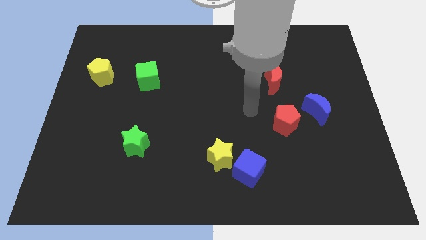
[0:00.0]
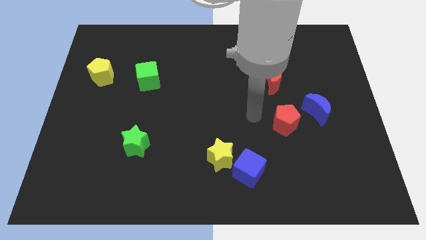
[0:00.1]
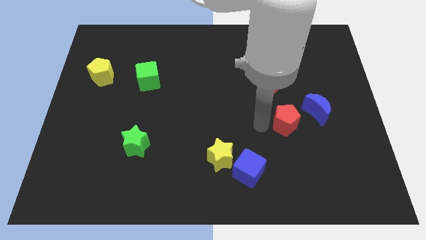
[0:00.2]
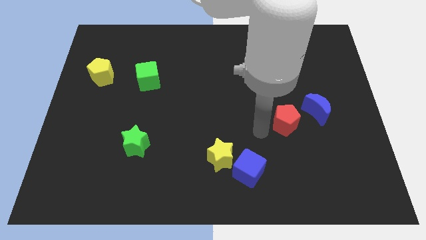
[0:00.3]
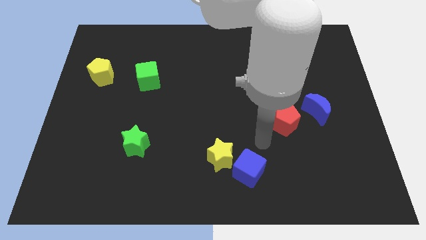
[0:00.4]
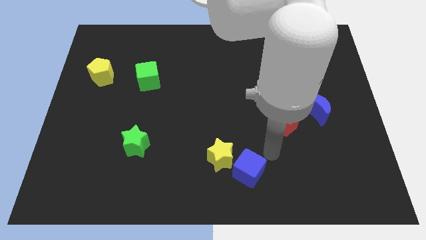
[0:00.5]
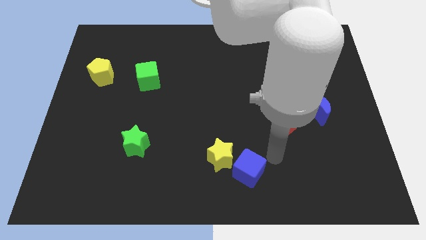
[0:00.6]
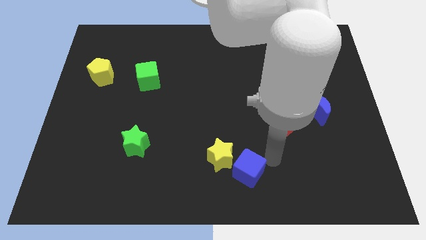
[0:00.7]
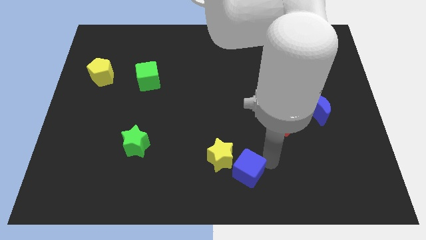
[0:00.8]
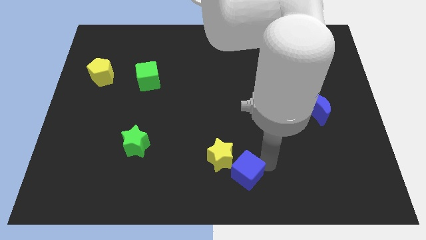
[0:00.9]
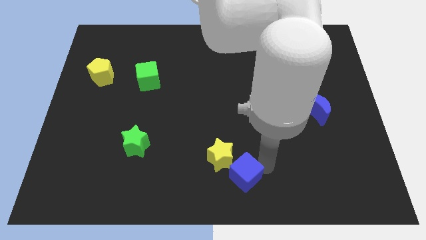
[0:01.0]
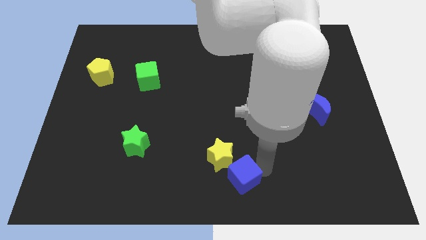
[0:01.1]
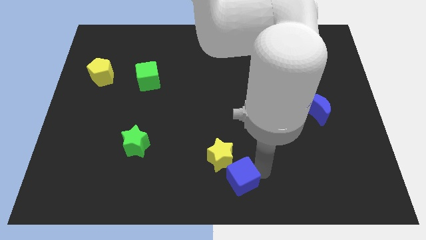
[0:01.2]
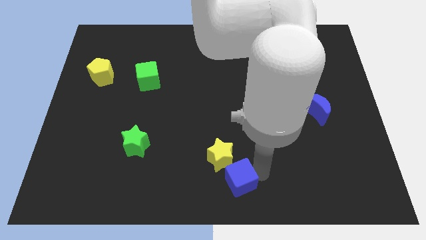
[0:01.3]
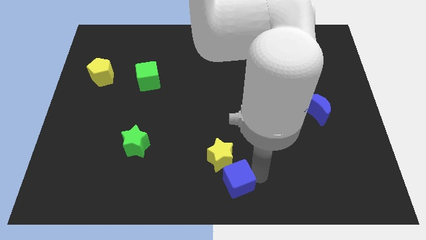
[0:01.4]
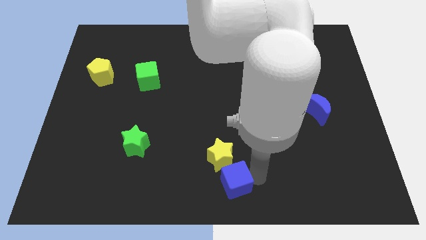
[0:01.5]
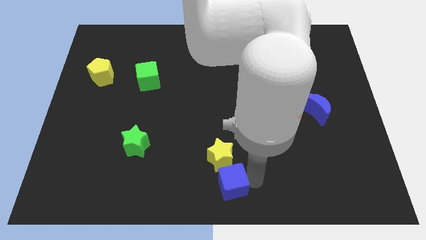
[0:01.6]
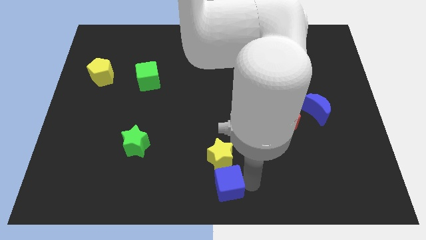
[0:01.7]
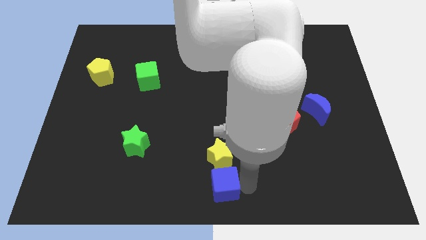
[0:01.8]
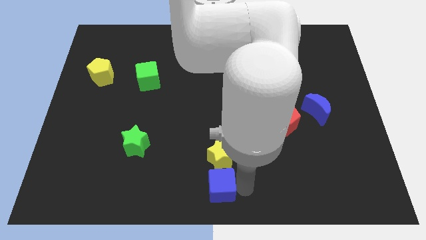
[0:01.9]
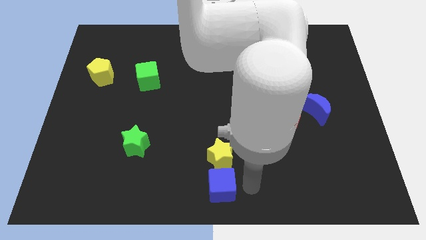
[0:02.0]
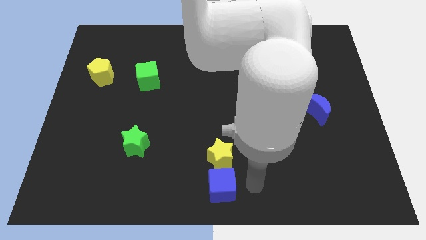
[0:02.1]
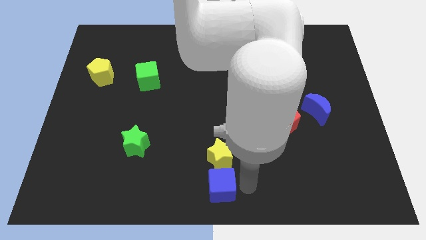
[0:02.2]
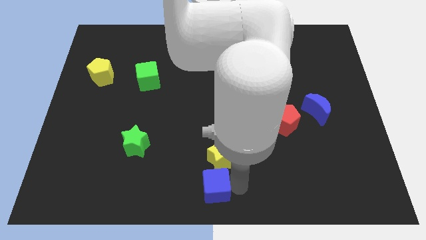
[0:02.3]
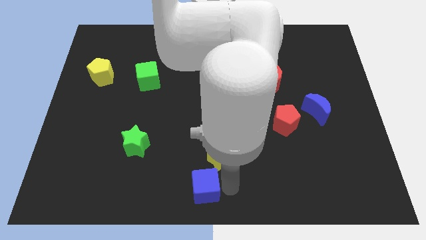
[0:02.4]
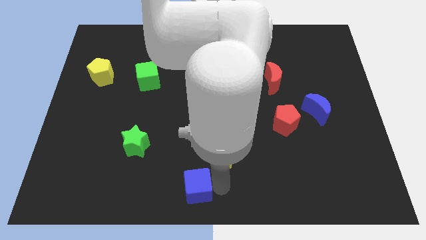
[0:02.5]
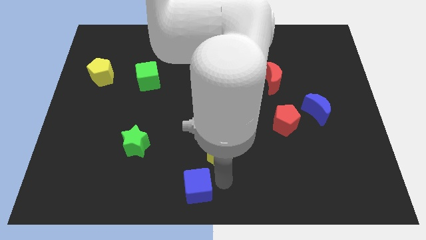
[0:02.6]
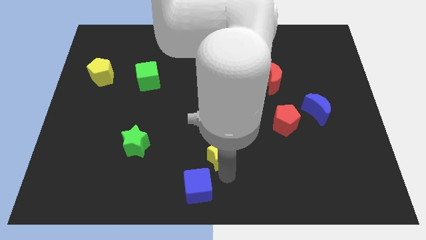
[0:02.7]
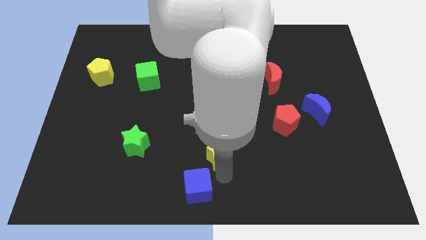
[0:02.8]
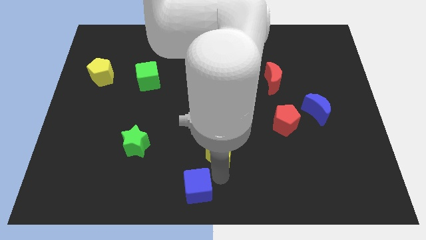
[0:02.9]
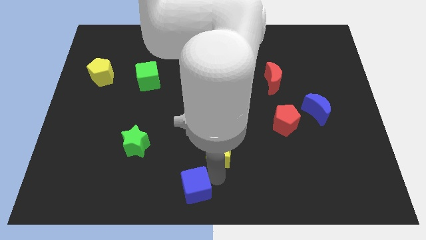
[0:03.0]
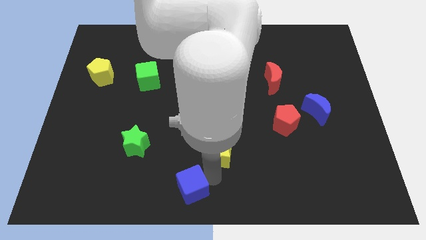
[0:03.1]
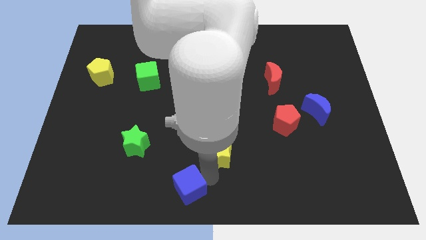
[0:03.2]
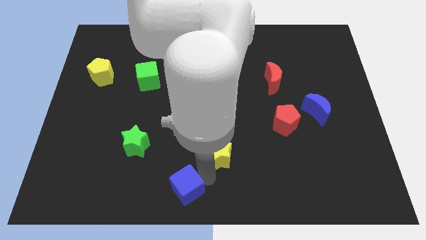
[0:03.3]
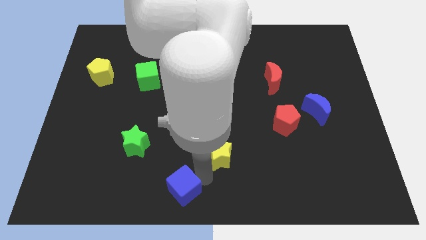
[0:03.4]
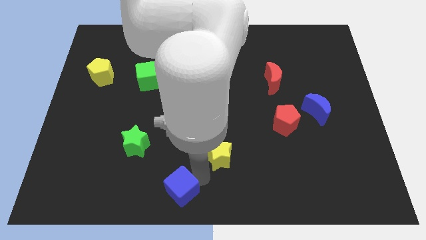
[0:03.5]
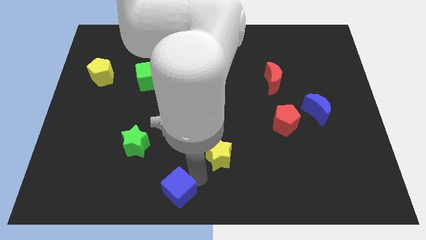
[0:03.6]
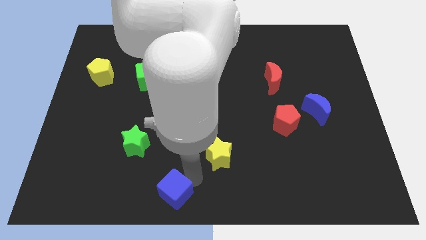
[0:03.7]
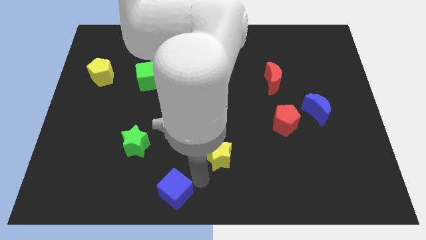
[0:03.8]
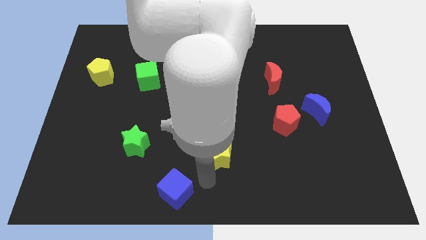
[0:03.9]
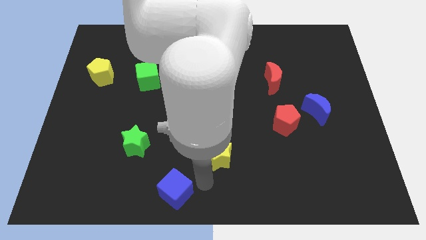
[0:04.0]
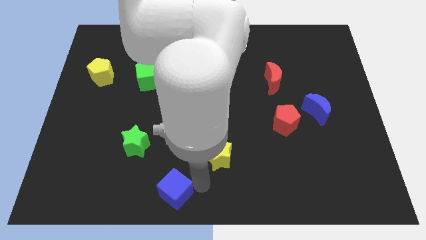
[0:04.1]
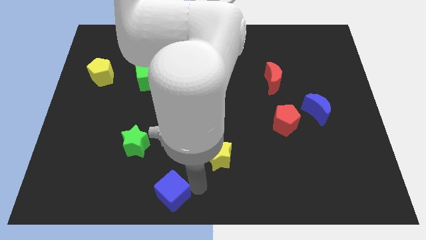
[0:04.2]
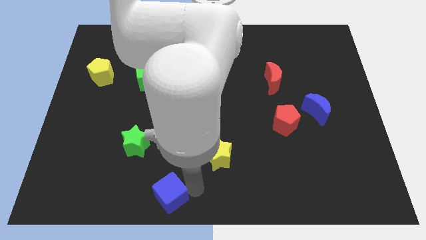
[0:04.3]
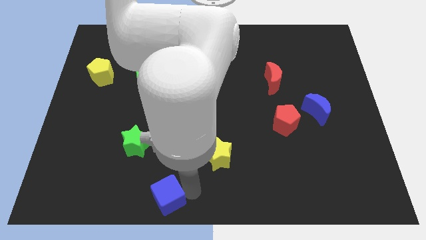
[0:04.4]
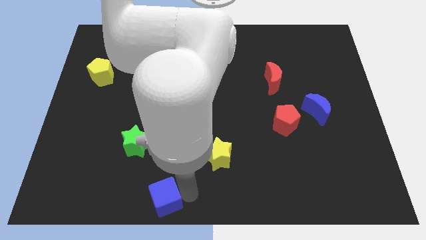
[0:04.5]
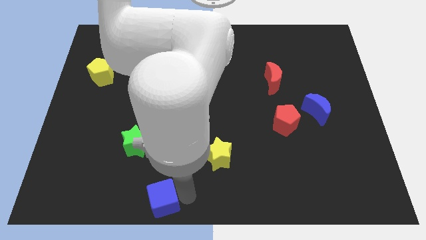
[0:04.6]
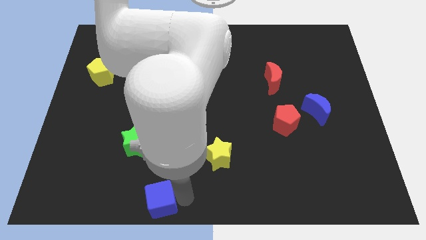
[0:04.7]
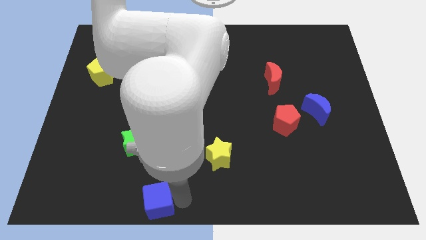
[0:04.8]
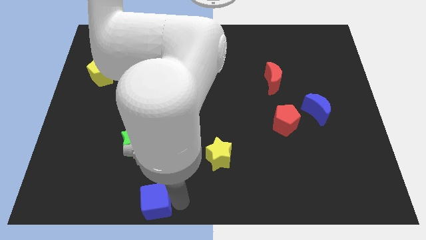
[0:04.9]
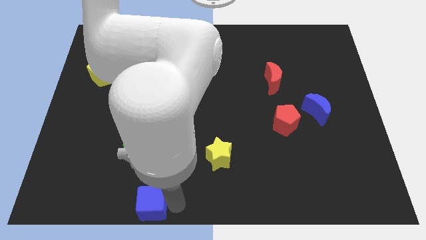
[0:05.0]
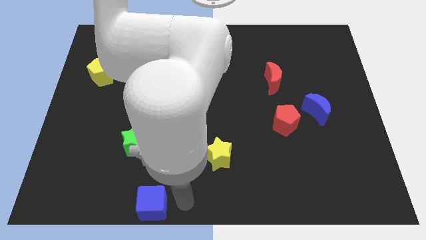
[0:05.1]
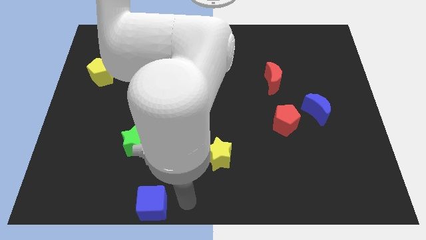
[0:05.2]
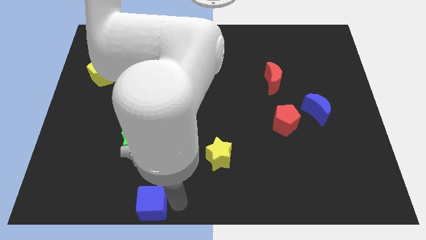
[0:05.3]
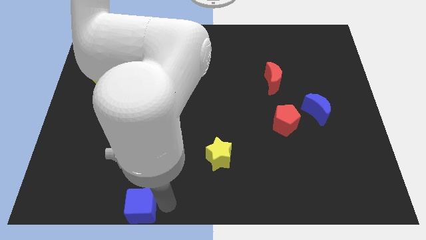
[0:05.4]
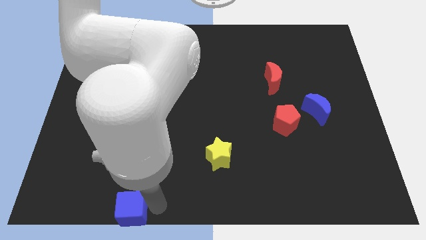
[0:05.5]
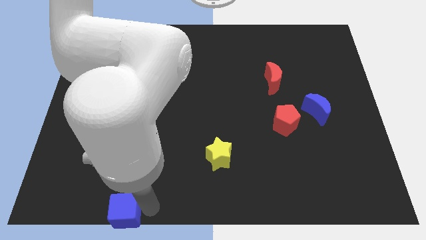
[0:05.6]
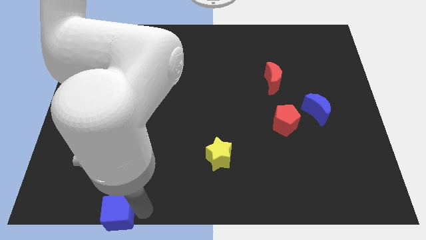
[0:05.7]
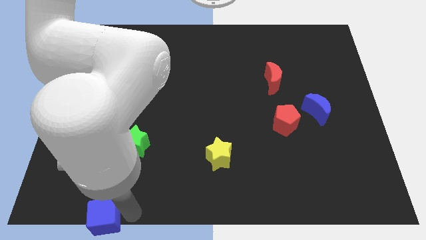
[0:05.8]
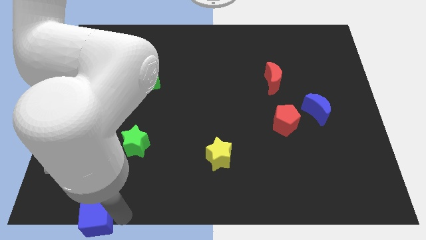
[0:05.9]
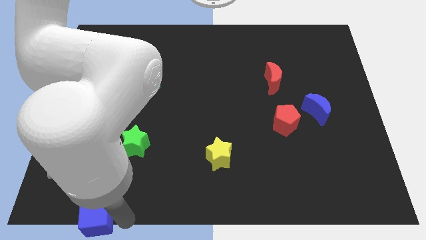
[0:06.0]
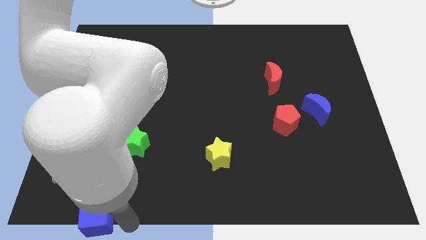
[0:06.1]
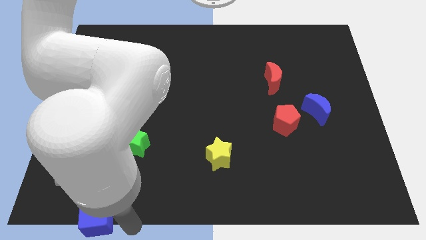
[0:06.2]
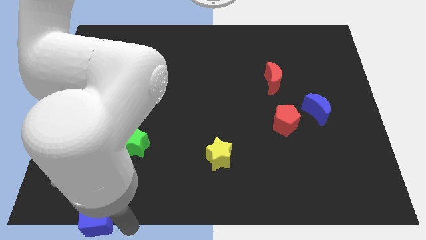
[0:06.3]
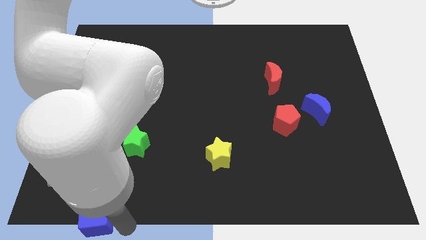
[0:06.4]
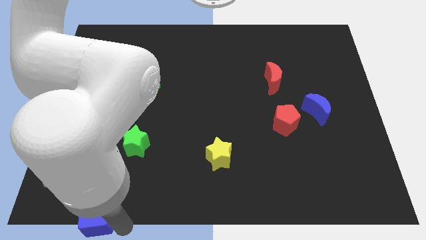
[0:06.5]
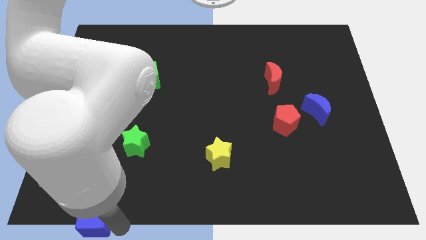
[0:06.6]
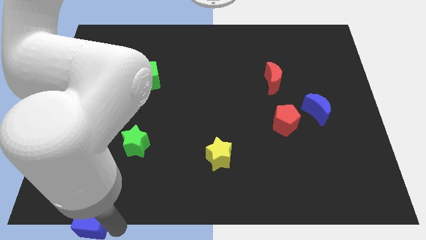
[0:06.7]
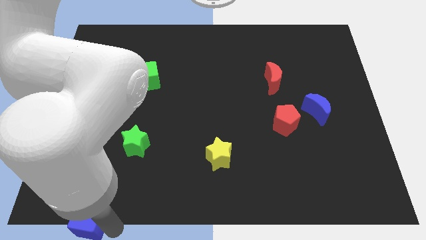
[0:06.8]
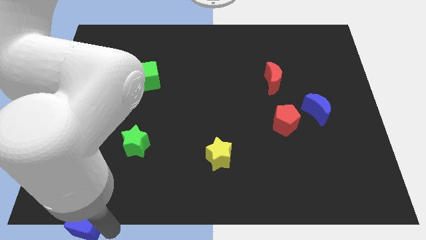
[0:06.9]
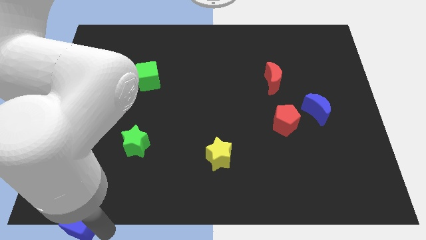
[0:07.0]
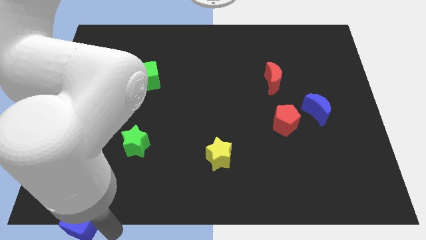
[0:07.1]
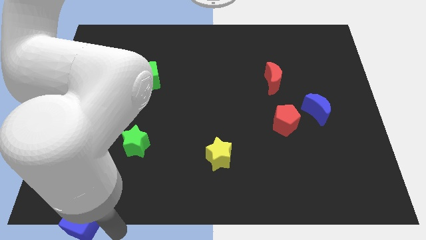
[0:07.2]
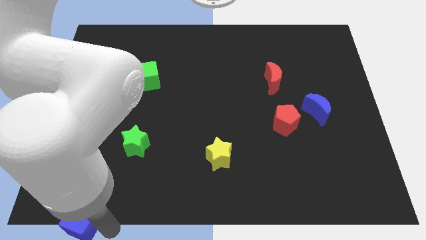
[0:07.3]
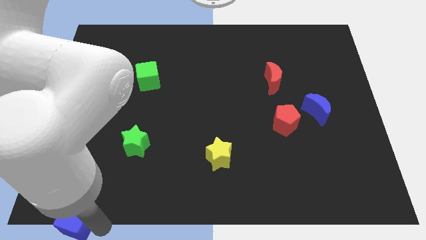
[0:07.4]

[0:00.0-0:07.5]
move the blue cube to the bottom left of the board
